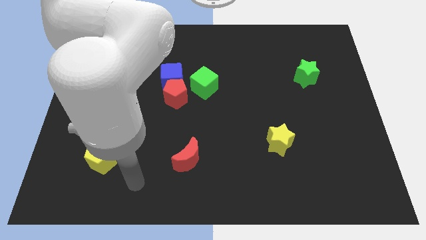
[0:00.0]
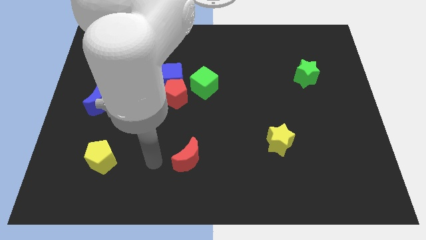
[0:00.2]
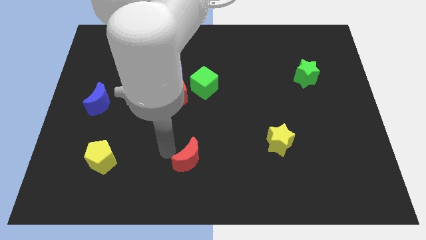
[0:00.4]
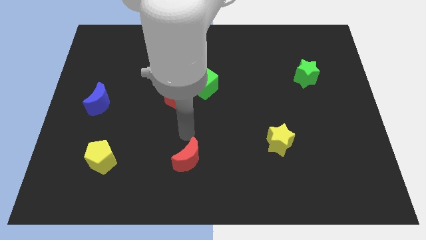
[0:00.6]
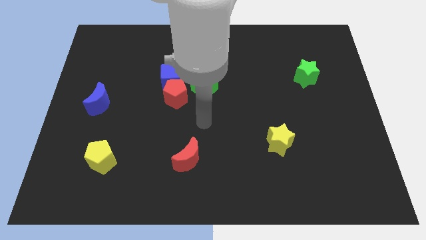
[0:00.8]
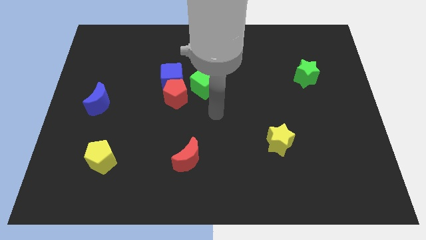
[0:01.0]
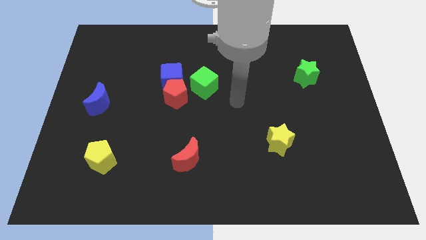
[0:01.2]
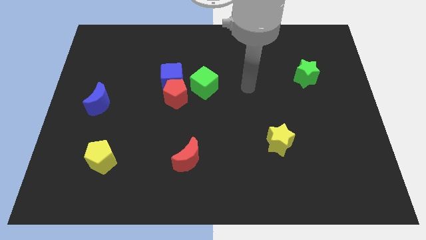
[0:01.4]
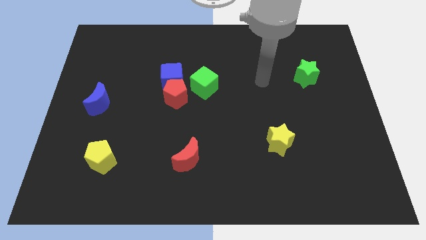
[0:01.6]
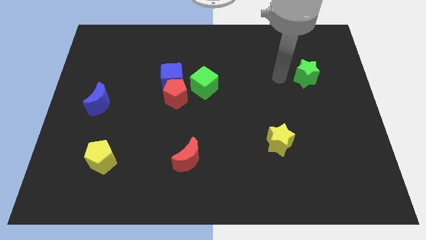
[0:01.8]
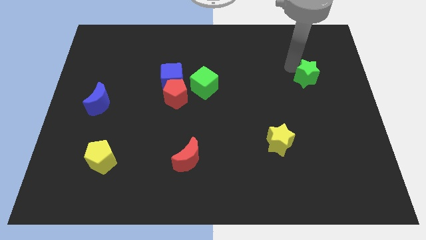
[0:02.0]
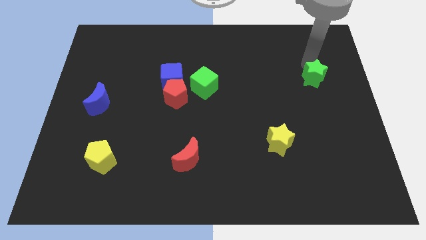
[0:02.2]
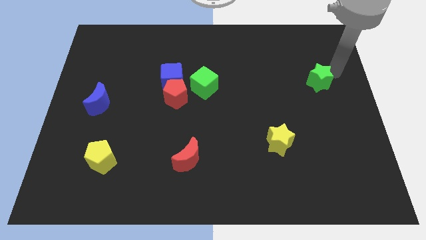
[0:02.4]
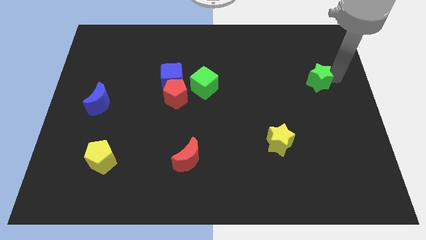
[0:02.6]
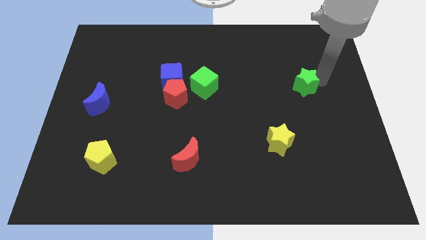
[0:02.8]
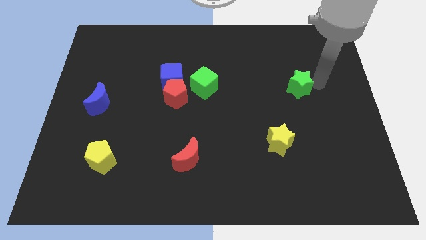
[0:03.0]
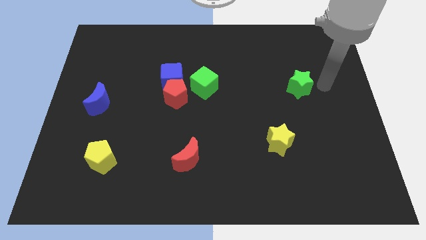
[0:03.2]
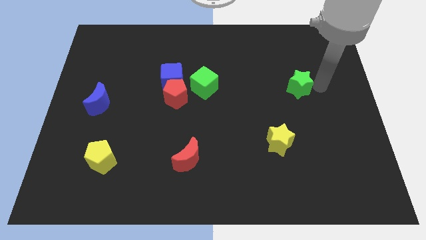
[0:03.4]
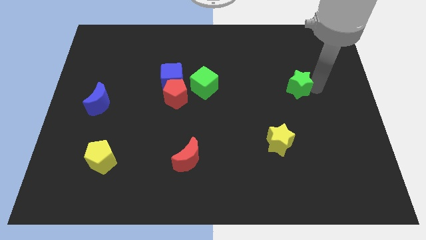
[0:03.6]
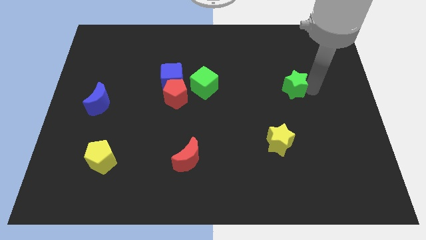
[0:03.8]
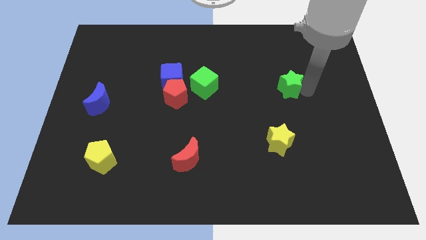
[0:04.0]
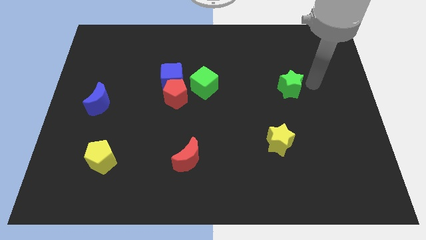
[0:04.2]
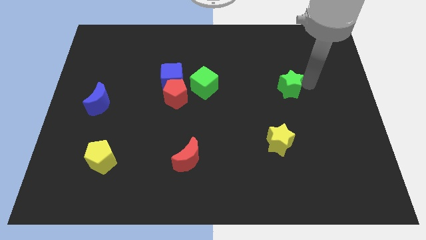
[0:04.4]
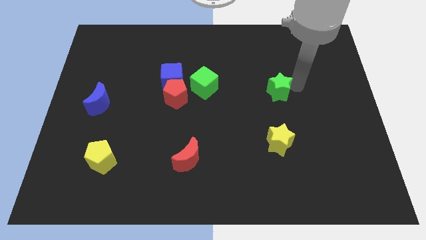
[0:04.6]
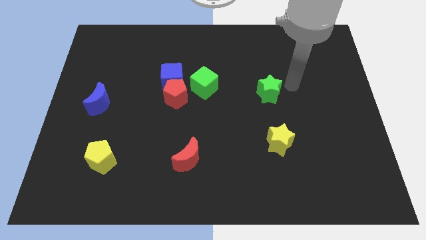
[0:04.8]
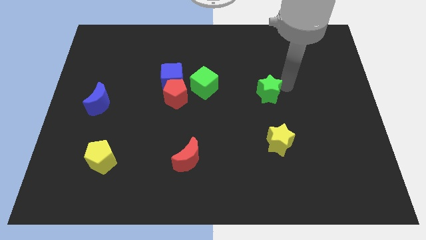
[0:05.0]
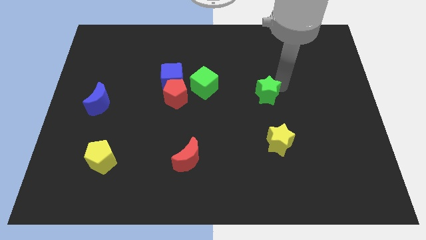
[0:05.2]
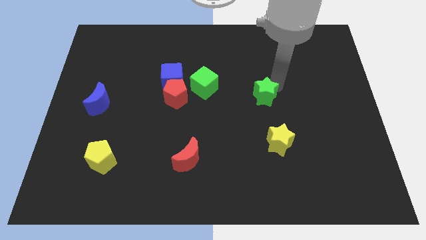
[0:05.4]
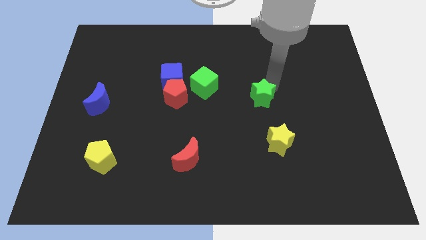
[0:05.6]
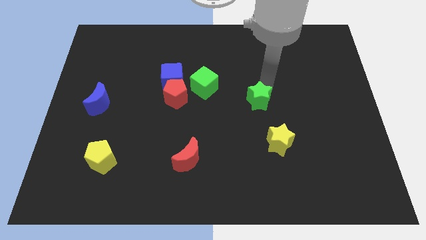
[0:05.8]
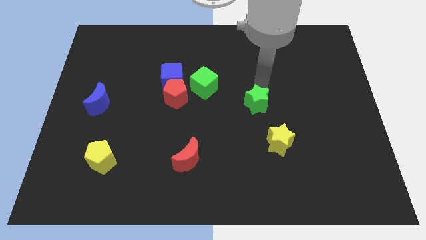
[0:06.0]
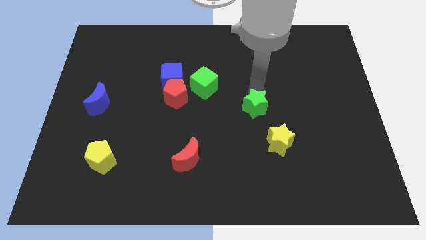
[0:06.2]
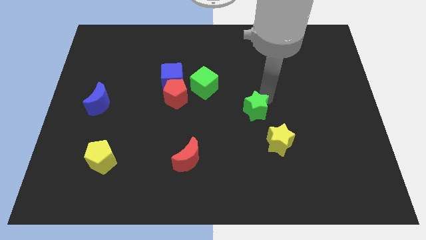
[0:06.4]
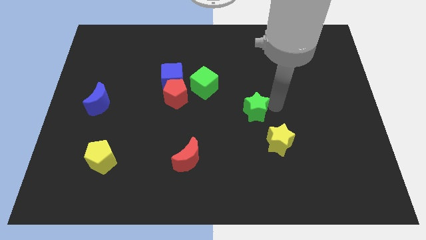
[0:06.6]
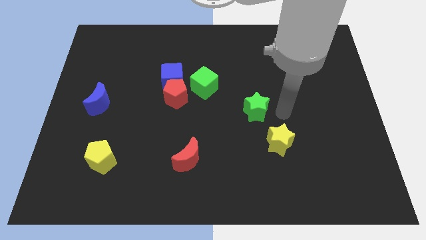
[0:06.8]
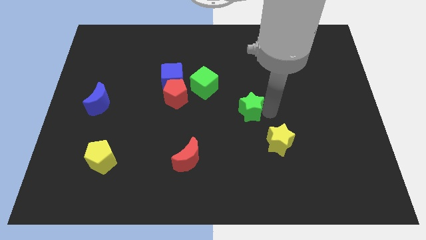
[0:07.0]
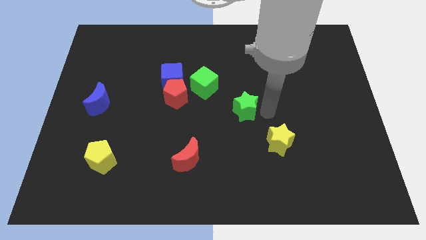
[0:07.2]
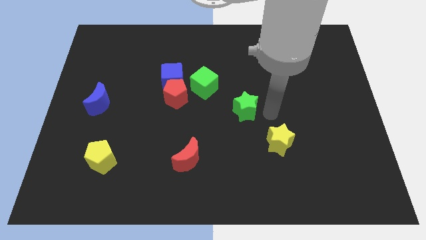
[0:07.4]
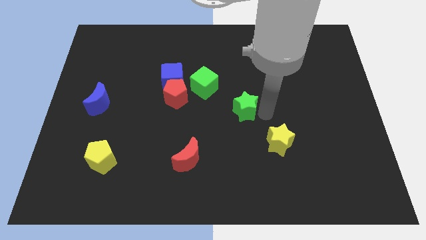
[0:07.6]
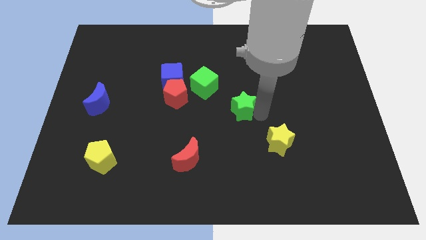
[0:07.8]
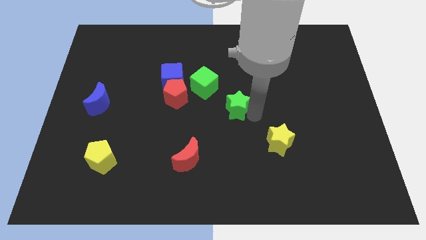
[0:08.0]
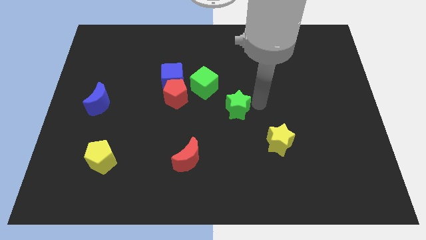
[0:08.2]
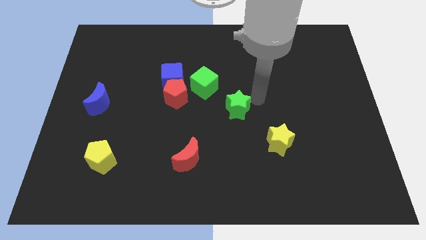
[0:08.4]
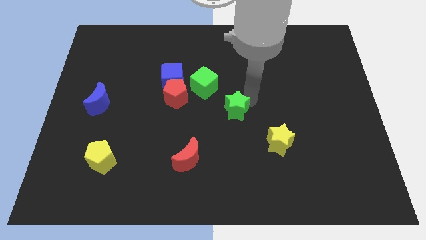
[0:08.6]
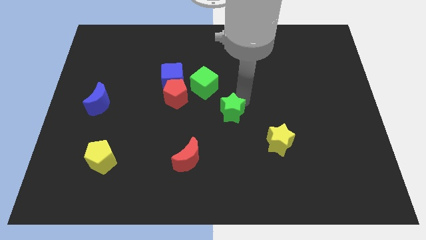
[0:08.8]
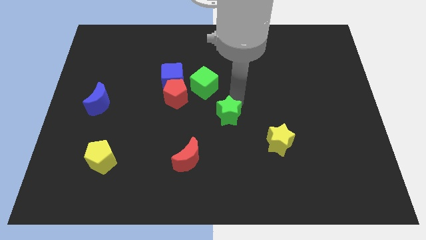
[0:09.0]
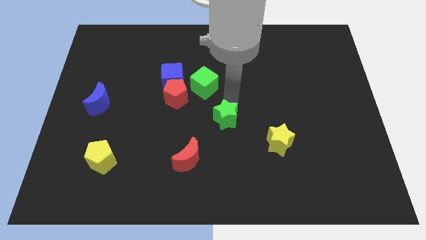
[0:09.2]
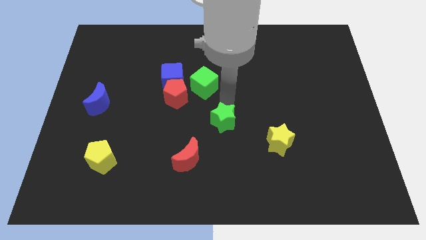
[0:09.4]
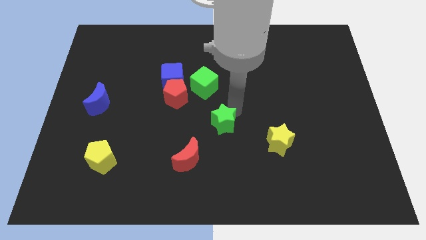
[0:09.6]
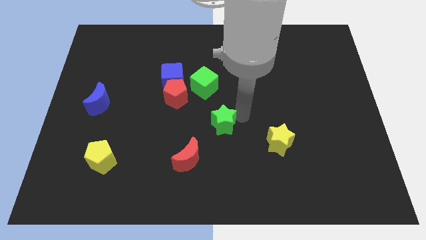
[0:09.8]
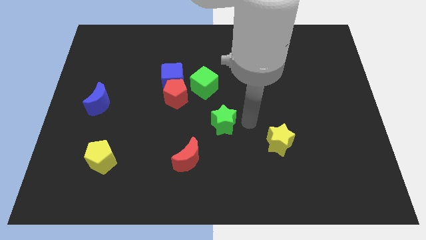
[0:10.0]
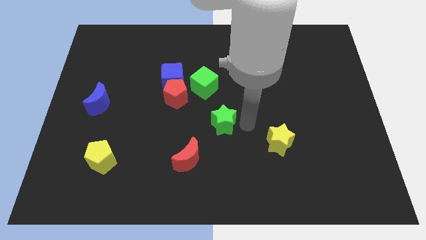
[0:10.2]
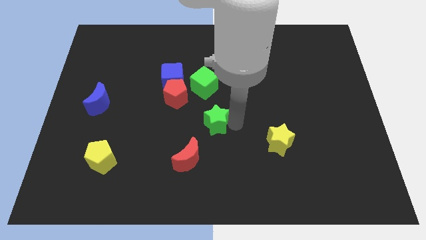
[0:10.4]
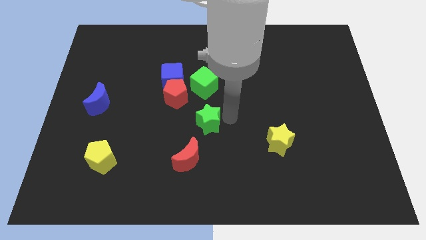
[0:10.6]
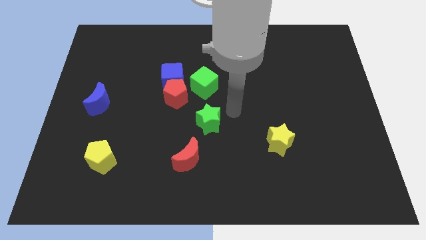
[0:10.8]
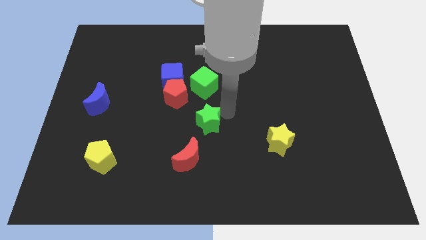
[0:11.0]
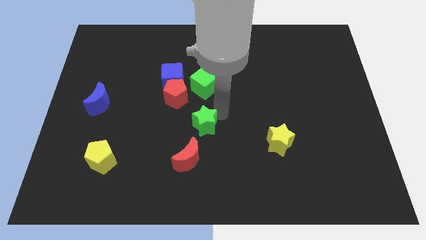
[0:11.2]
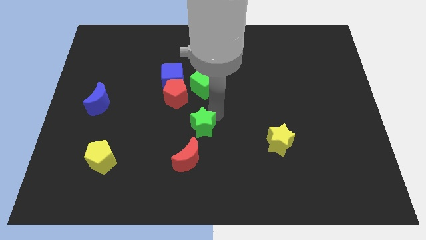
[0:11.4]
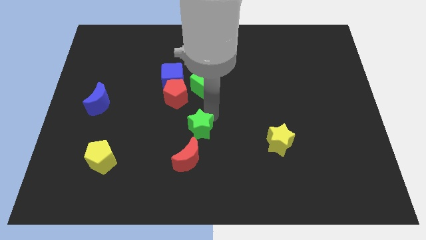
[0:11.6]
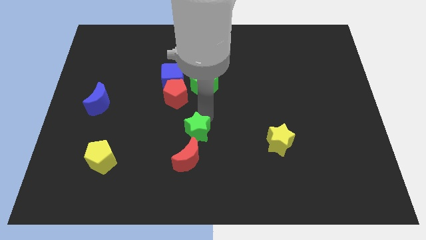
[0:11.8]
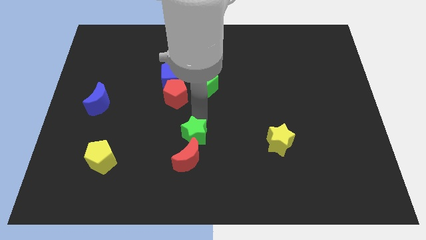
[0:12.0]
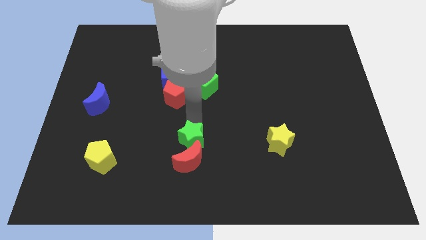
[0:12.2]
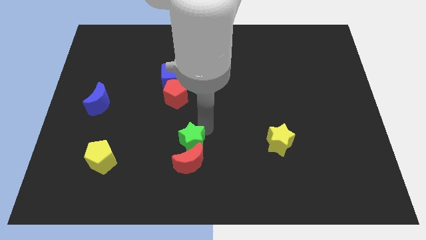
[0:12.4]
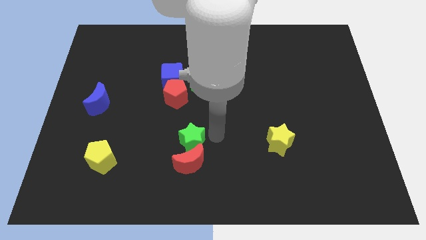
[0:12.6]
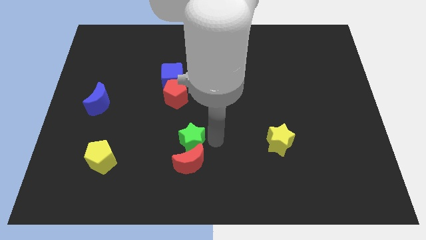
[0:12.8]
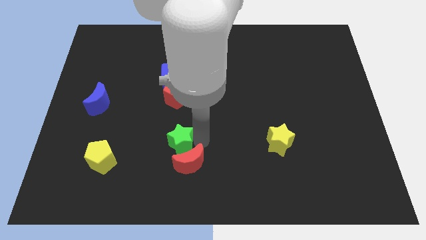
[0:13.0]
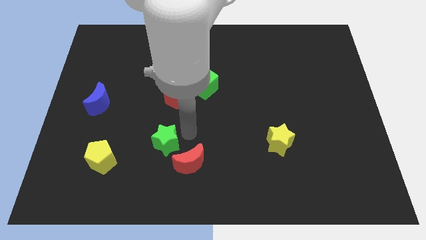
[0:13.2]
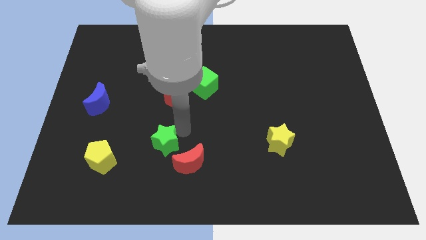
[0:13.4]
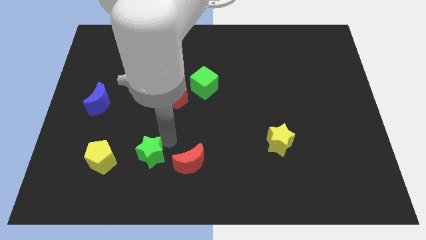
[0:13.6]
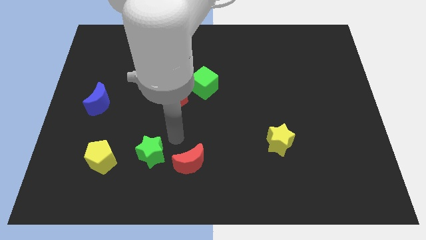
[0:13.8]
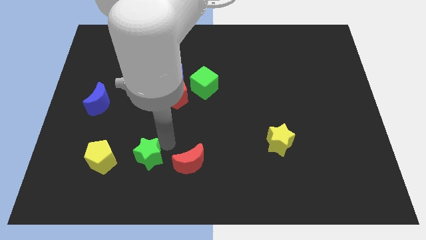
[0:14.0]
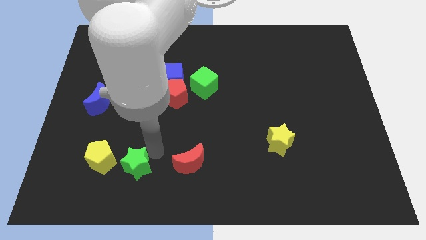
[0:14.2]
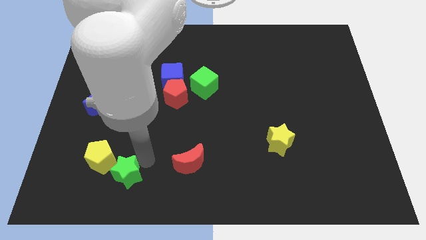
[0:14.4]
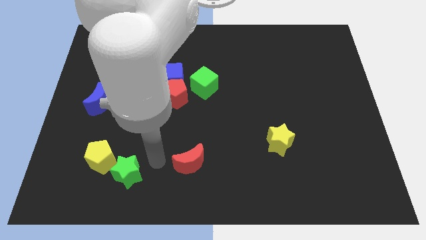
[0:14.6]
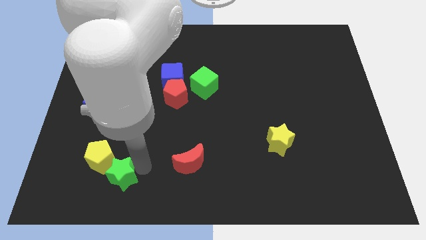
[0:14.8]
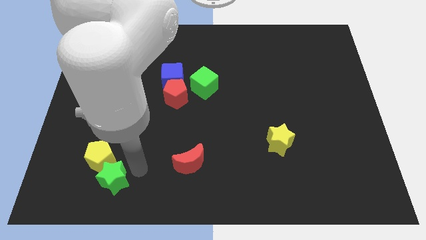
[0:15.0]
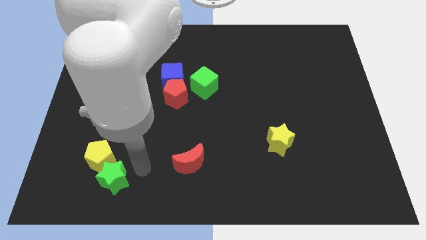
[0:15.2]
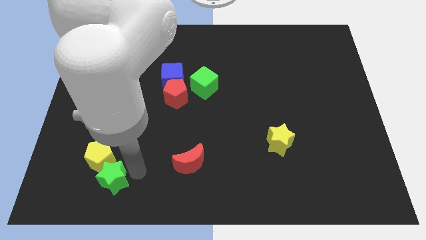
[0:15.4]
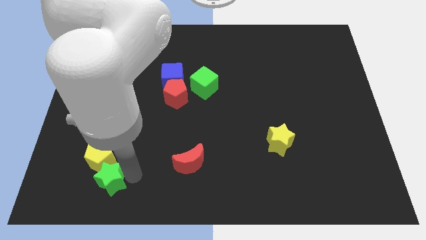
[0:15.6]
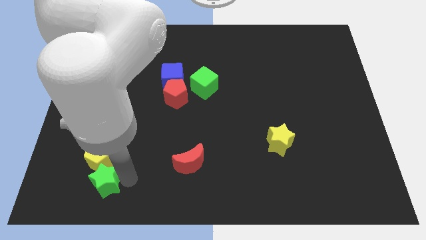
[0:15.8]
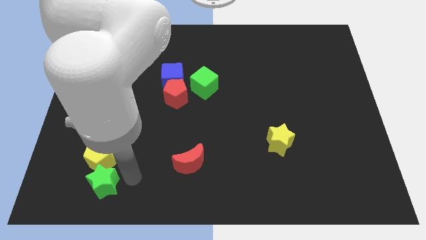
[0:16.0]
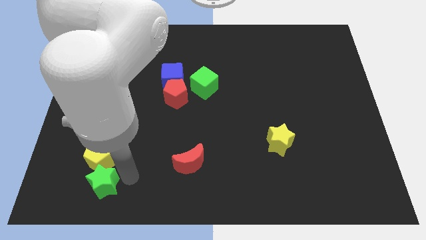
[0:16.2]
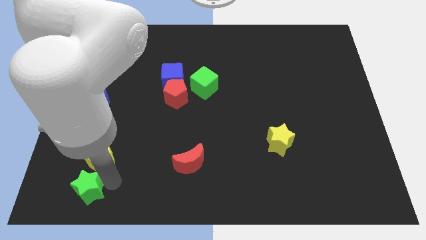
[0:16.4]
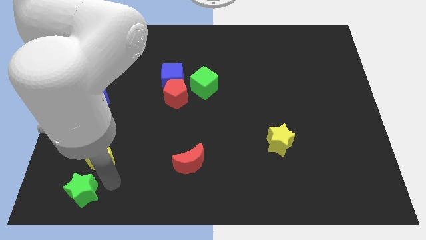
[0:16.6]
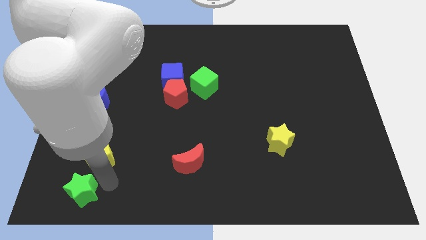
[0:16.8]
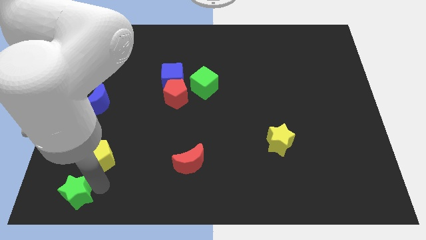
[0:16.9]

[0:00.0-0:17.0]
put the green star to the bottom left of the board
